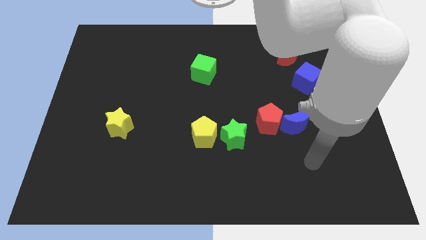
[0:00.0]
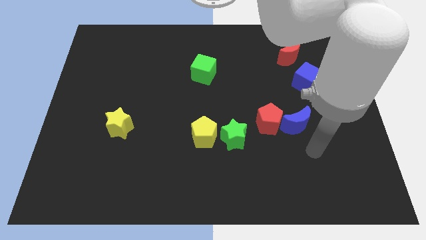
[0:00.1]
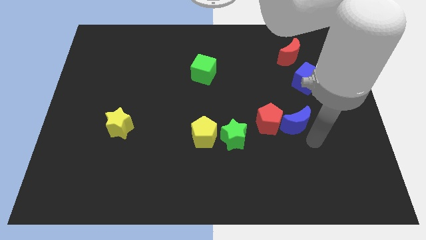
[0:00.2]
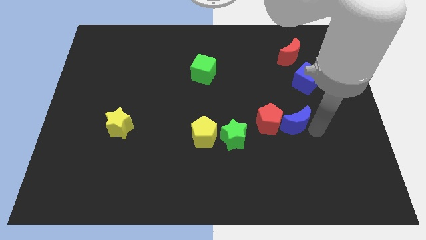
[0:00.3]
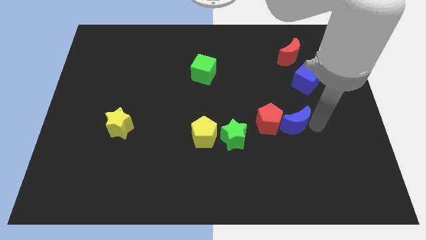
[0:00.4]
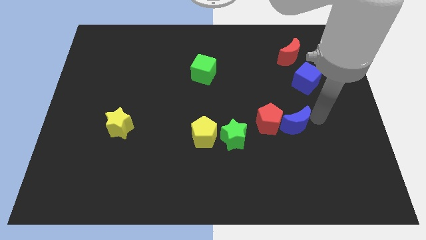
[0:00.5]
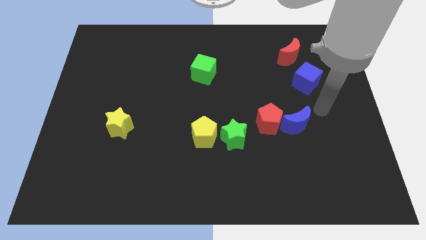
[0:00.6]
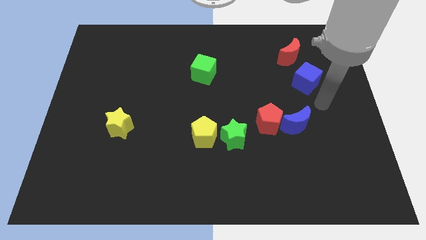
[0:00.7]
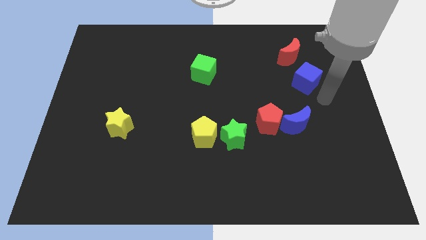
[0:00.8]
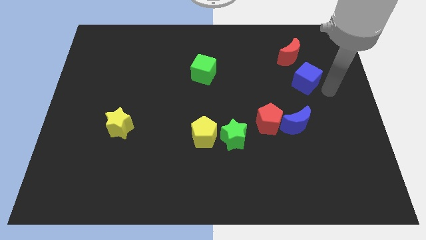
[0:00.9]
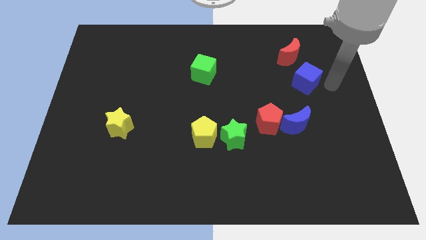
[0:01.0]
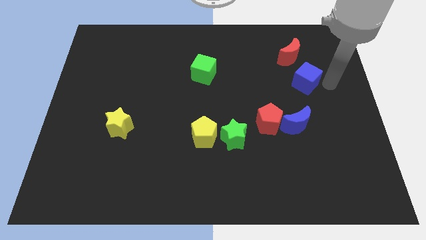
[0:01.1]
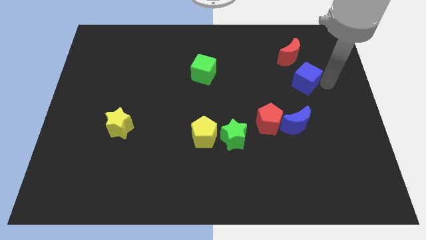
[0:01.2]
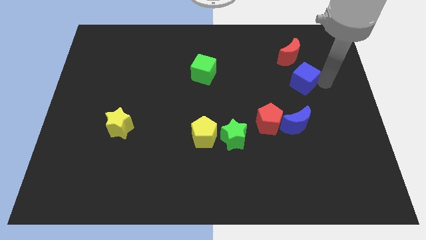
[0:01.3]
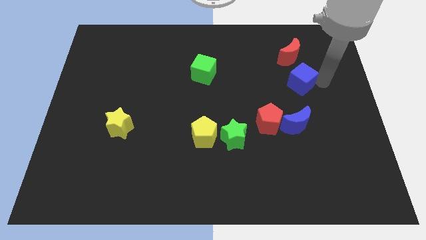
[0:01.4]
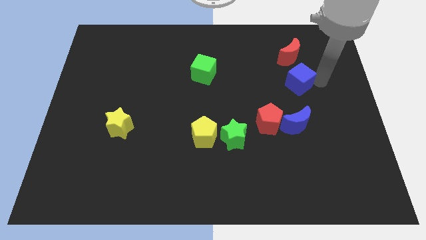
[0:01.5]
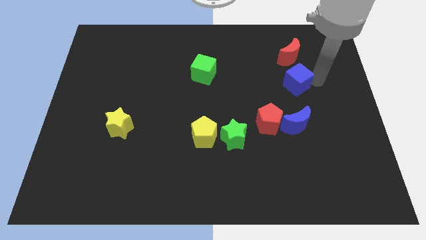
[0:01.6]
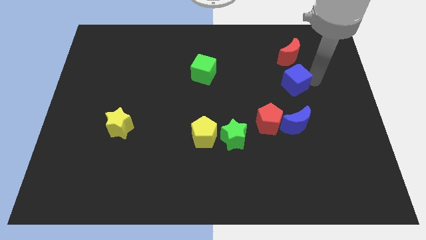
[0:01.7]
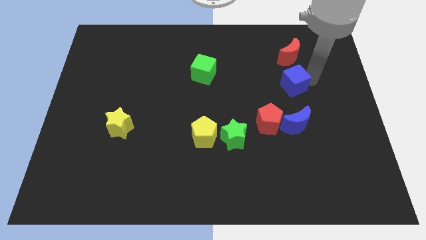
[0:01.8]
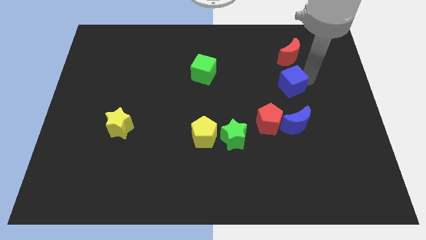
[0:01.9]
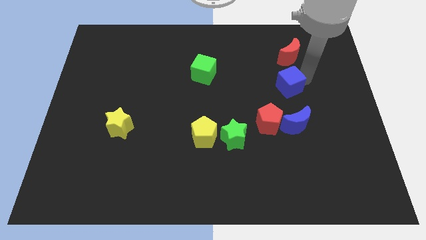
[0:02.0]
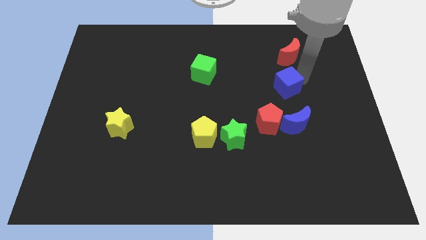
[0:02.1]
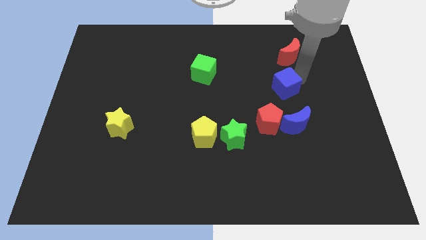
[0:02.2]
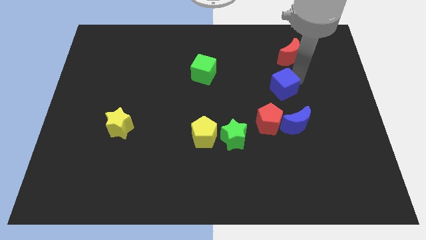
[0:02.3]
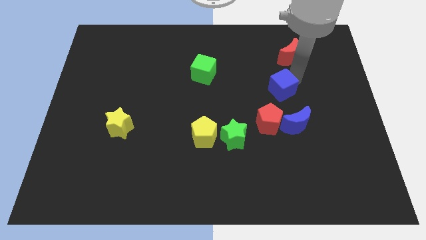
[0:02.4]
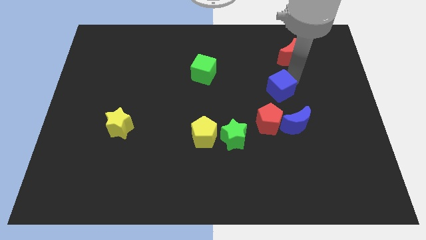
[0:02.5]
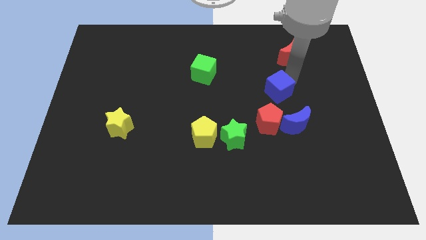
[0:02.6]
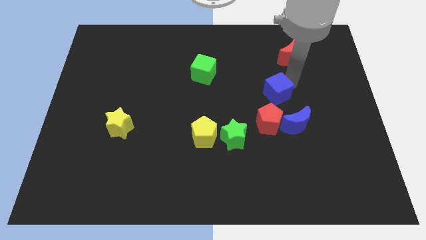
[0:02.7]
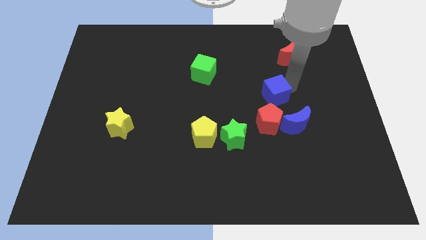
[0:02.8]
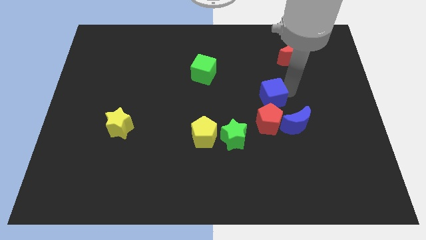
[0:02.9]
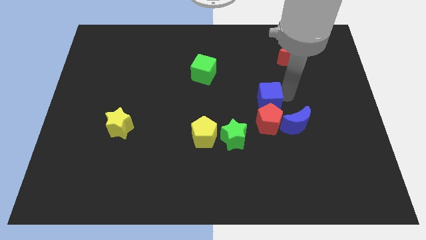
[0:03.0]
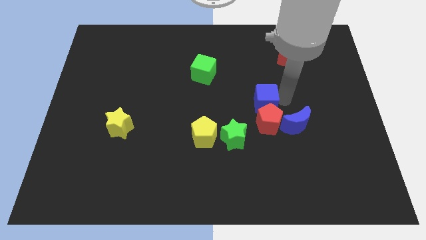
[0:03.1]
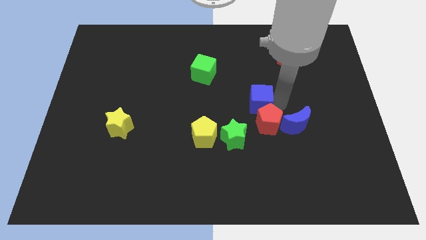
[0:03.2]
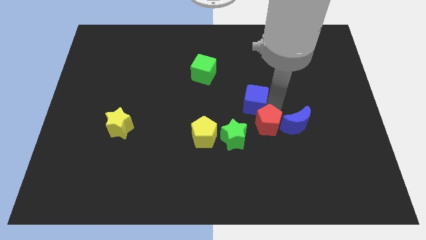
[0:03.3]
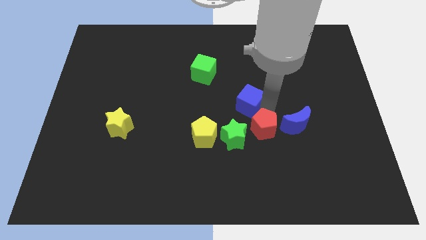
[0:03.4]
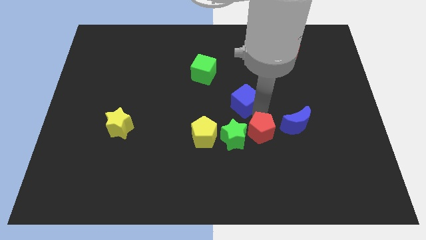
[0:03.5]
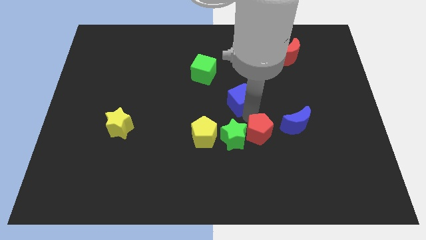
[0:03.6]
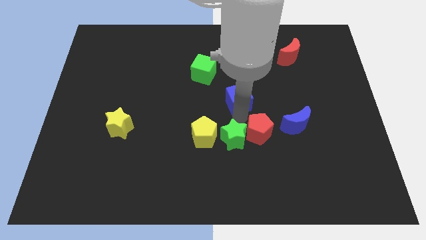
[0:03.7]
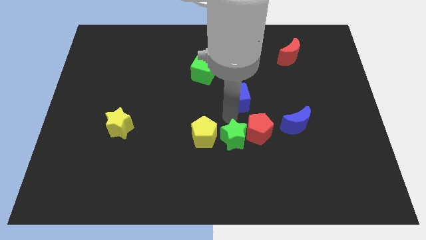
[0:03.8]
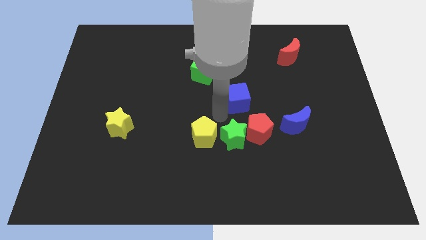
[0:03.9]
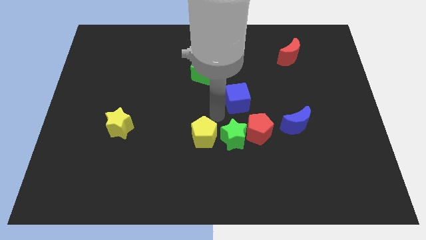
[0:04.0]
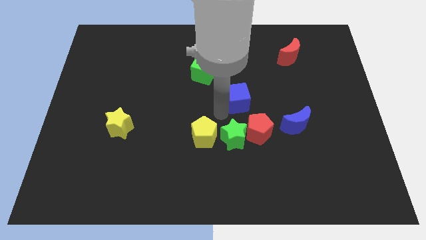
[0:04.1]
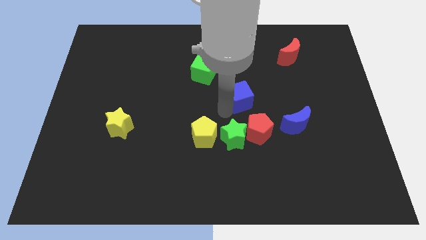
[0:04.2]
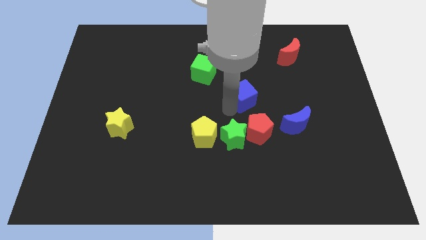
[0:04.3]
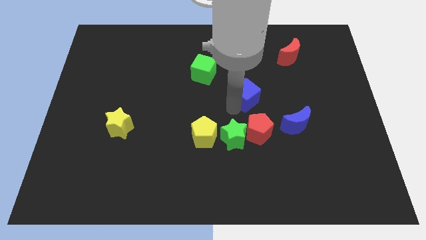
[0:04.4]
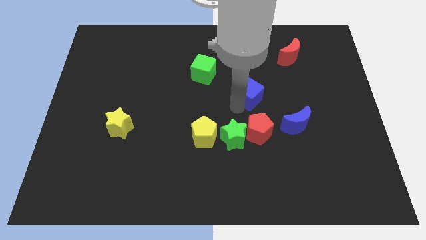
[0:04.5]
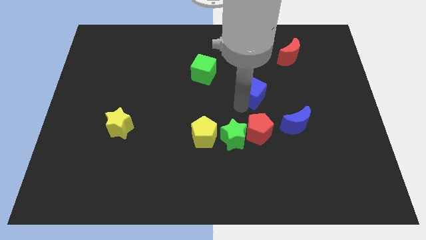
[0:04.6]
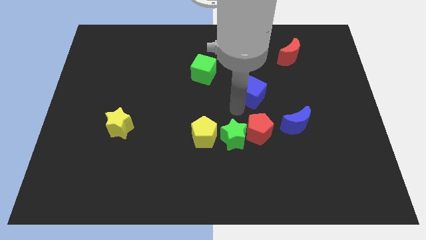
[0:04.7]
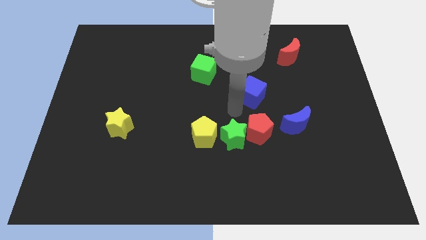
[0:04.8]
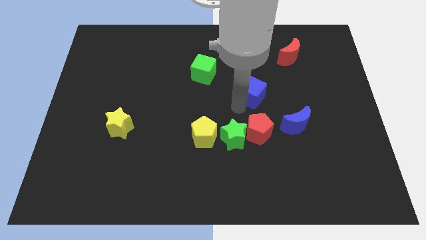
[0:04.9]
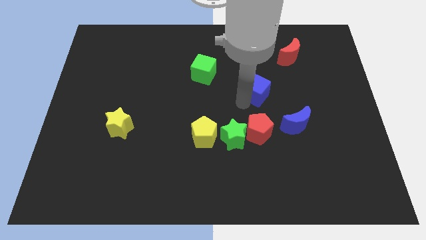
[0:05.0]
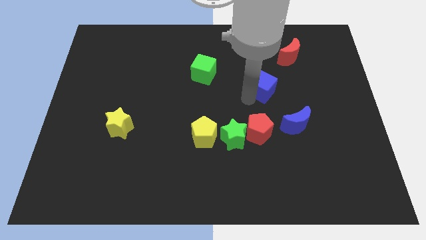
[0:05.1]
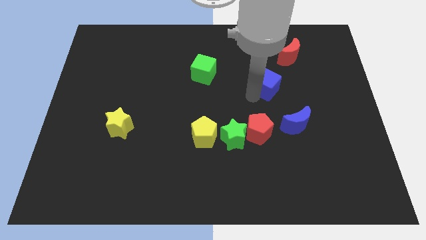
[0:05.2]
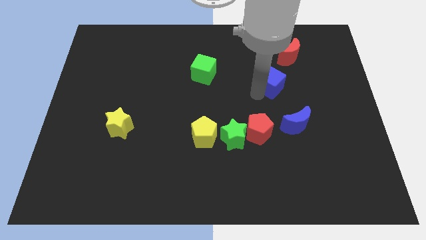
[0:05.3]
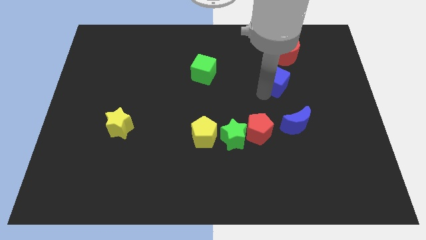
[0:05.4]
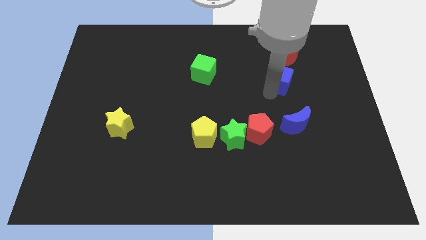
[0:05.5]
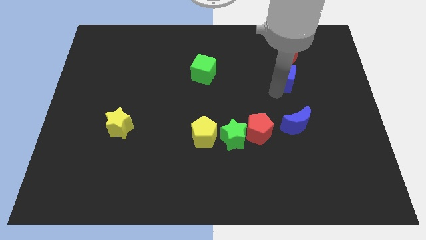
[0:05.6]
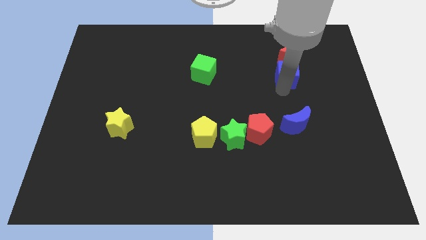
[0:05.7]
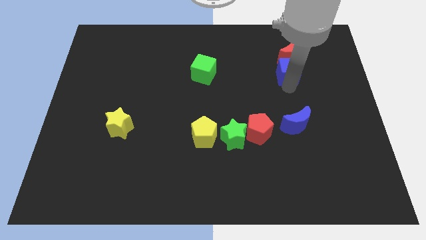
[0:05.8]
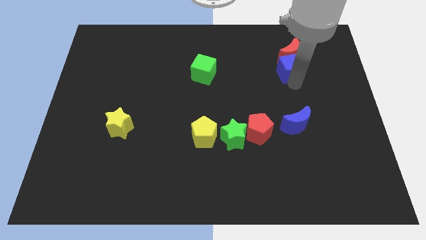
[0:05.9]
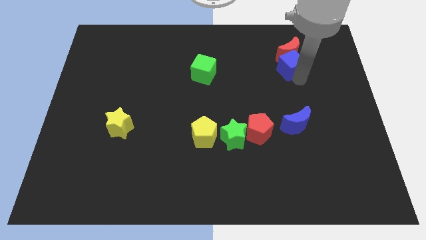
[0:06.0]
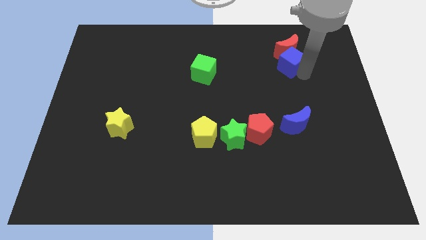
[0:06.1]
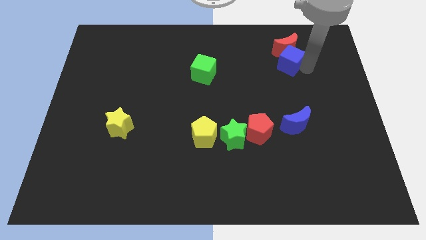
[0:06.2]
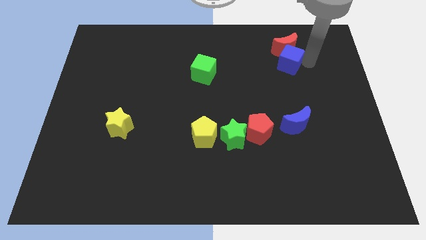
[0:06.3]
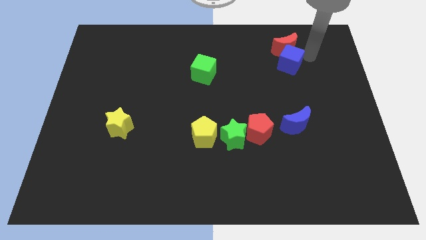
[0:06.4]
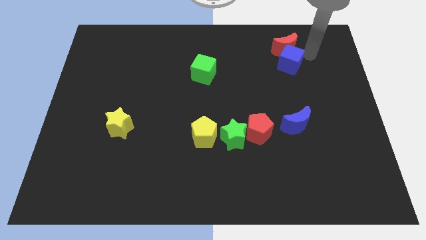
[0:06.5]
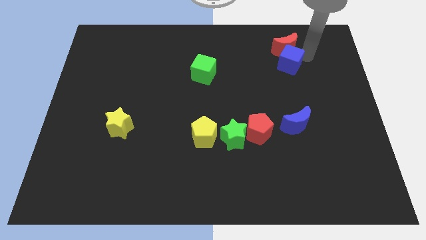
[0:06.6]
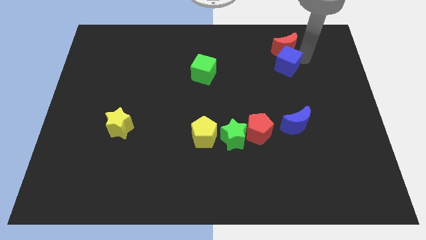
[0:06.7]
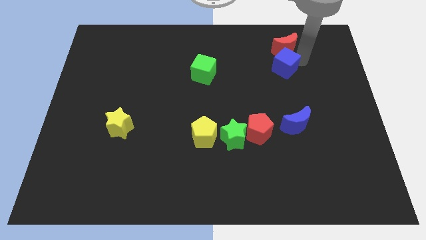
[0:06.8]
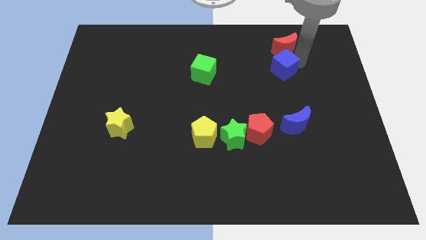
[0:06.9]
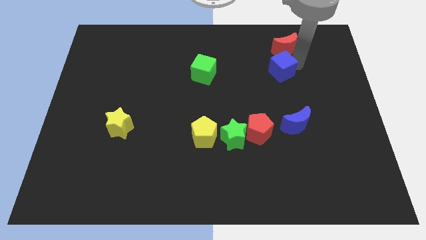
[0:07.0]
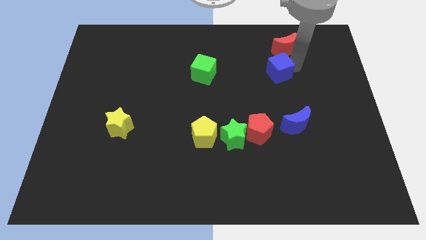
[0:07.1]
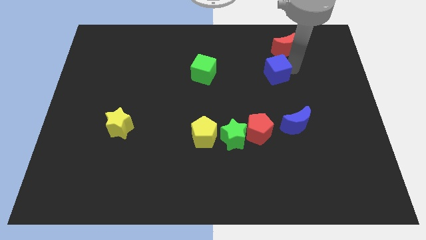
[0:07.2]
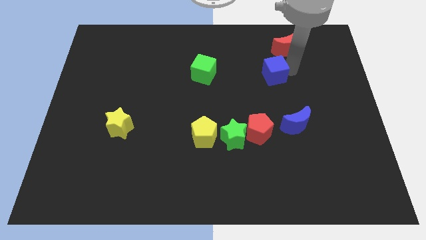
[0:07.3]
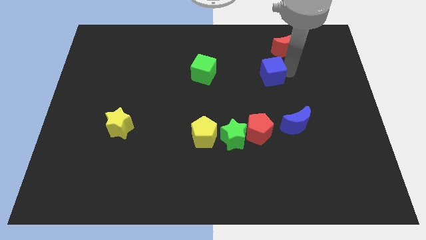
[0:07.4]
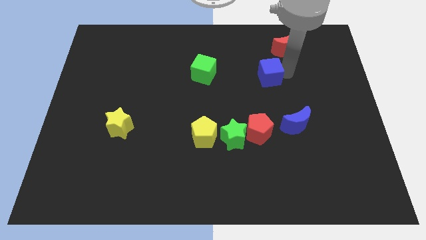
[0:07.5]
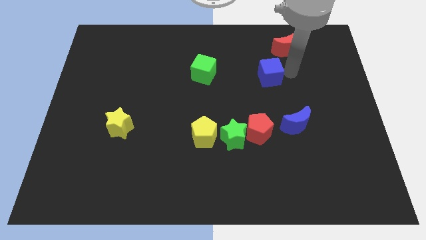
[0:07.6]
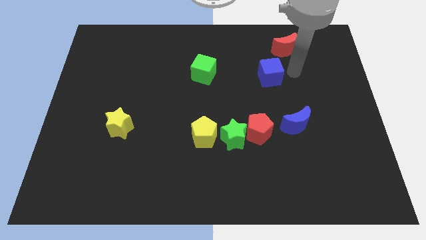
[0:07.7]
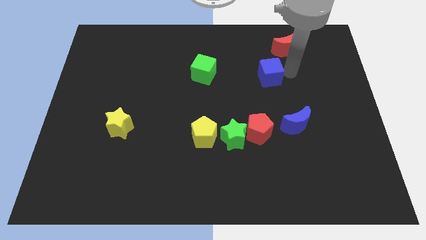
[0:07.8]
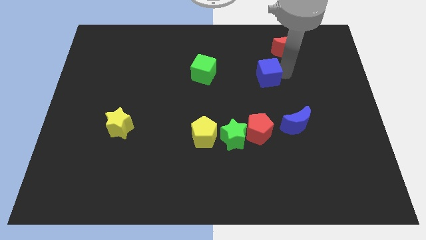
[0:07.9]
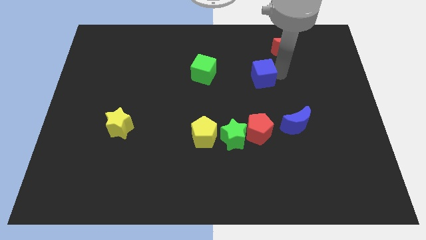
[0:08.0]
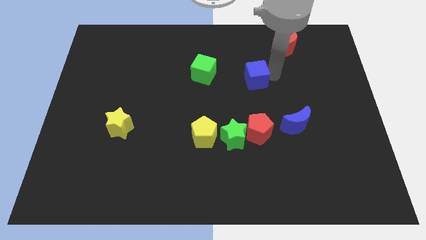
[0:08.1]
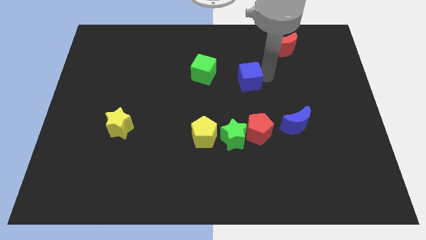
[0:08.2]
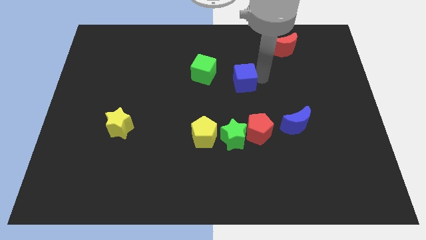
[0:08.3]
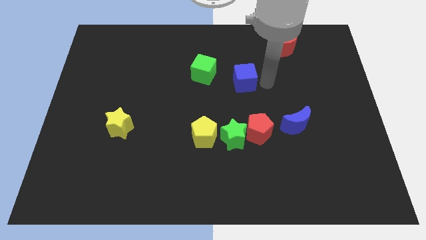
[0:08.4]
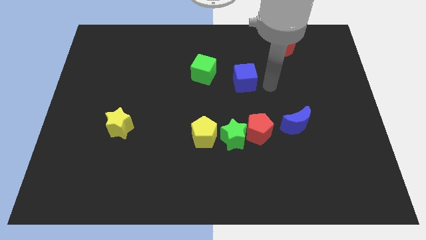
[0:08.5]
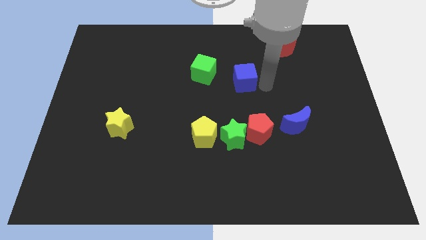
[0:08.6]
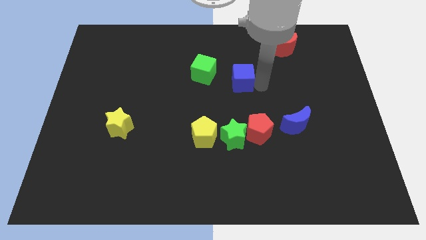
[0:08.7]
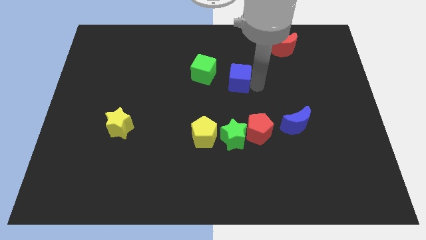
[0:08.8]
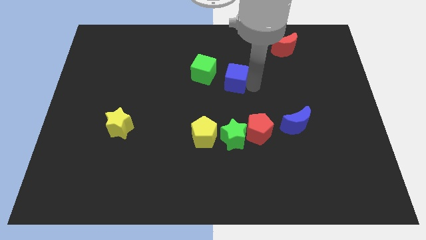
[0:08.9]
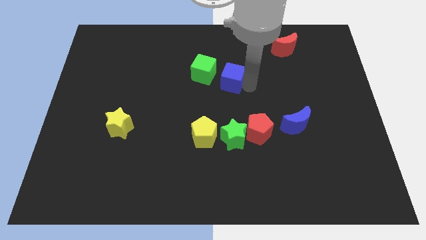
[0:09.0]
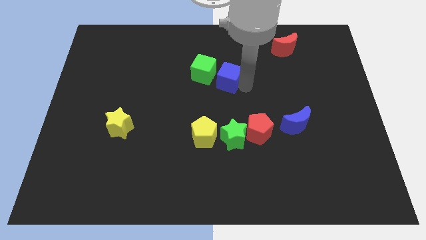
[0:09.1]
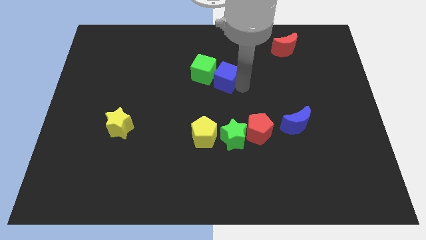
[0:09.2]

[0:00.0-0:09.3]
put the blue cube to the green cube
